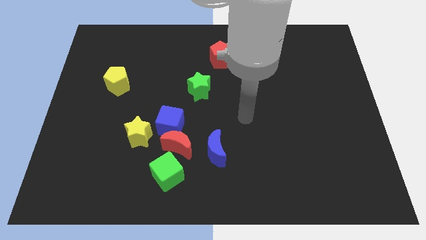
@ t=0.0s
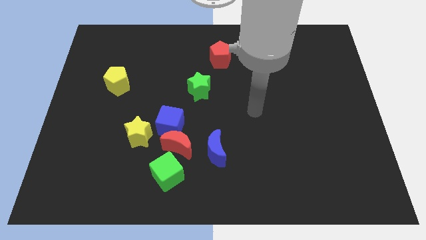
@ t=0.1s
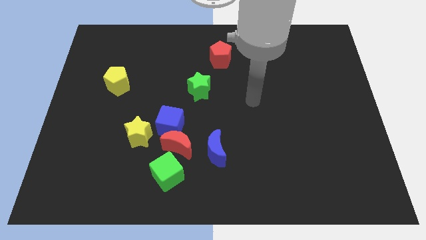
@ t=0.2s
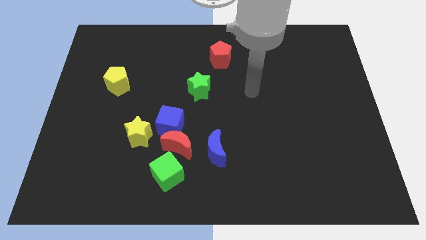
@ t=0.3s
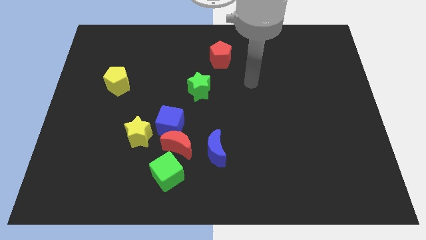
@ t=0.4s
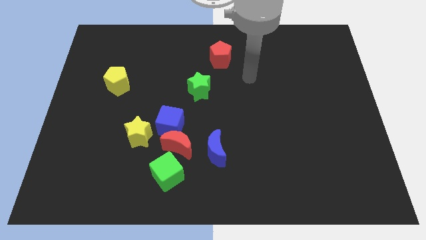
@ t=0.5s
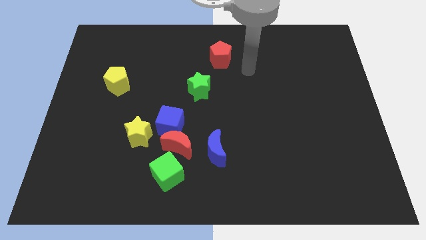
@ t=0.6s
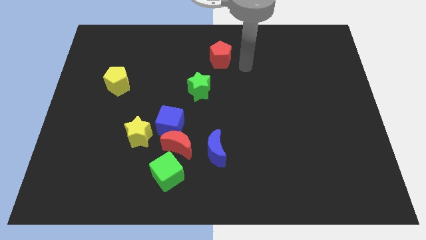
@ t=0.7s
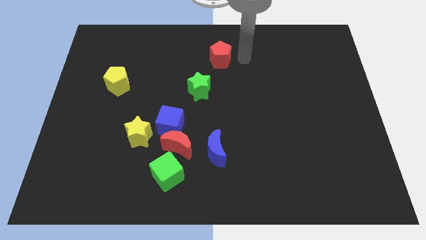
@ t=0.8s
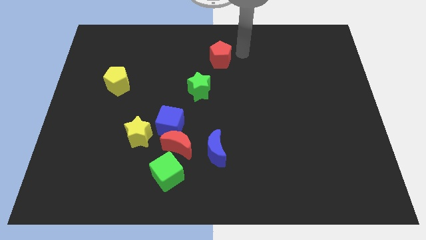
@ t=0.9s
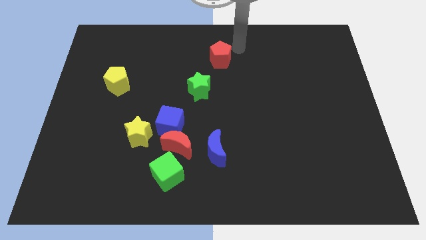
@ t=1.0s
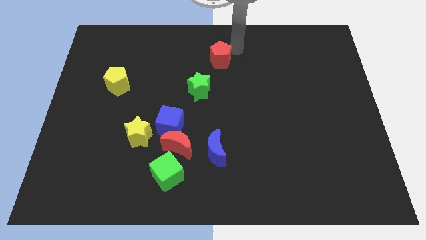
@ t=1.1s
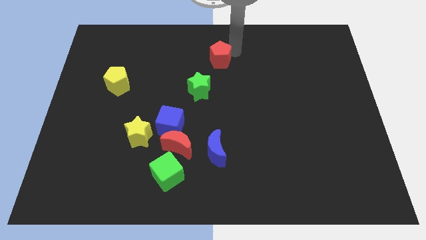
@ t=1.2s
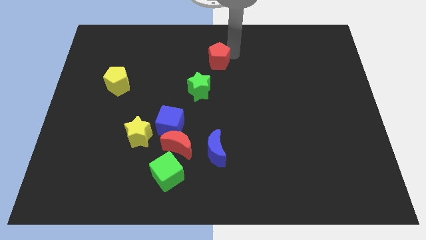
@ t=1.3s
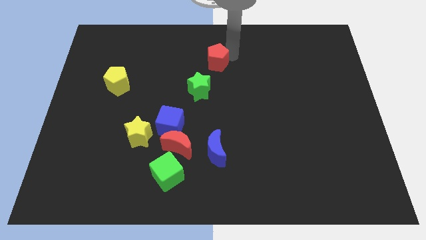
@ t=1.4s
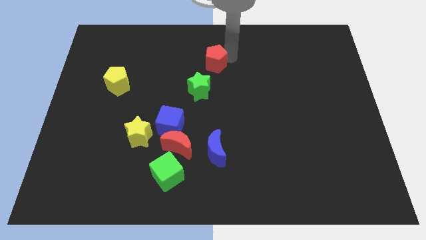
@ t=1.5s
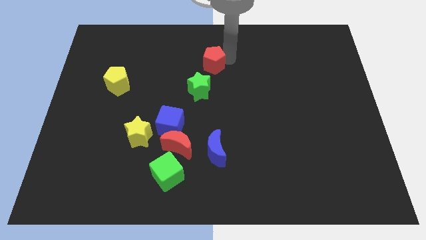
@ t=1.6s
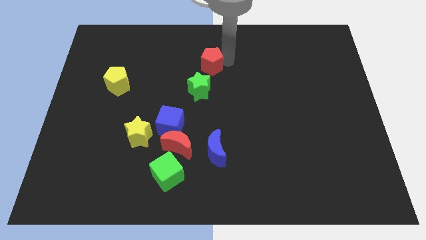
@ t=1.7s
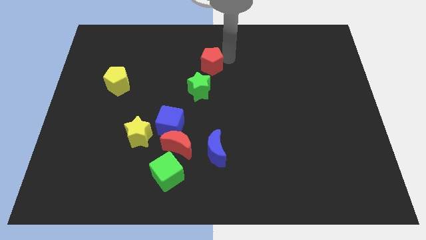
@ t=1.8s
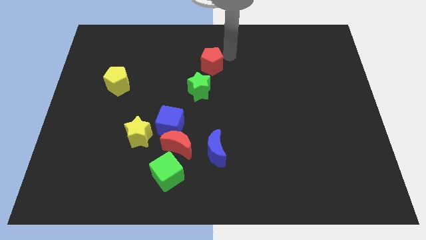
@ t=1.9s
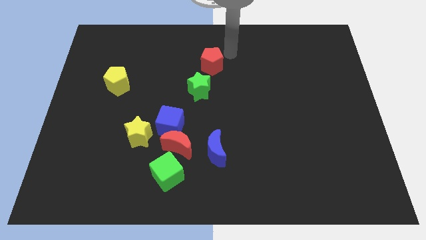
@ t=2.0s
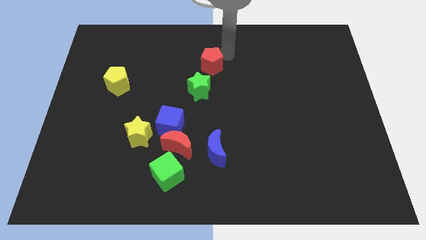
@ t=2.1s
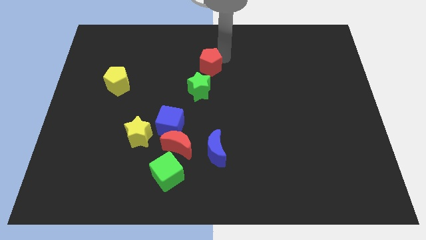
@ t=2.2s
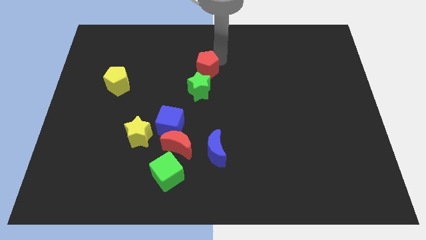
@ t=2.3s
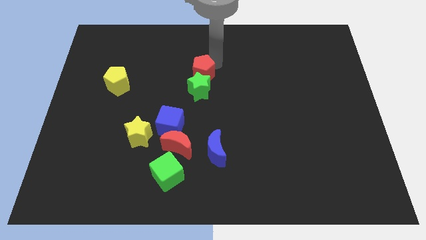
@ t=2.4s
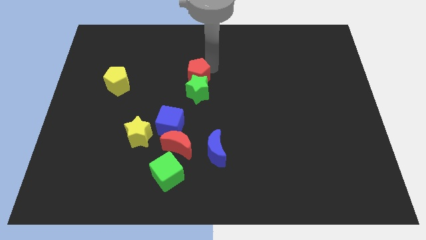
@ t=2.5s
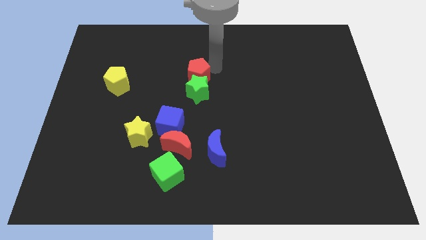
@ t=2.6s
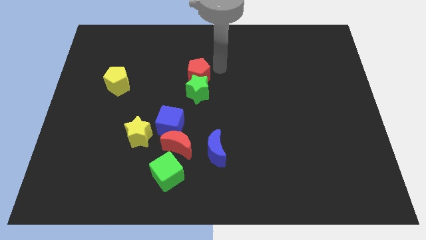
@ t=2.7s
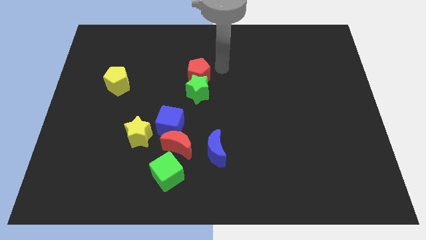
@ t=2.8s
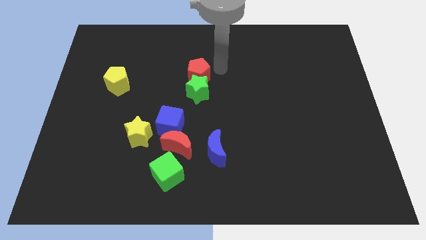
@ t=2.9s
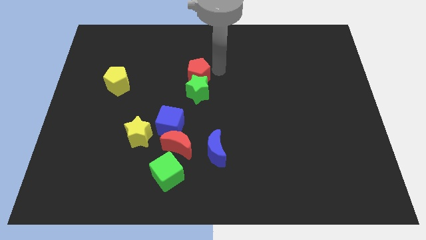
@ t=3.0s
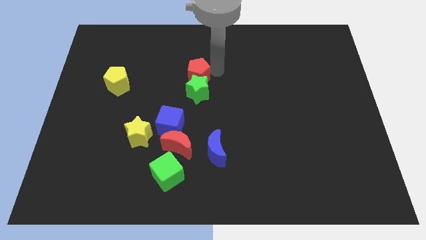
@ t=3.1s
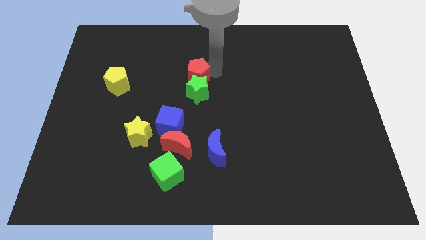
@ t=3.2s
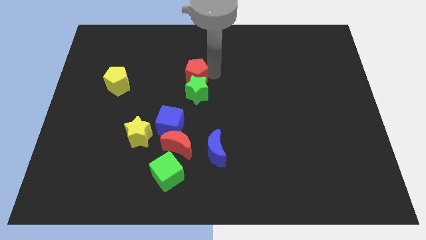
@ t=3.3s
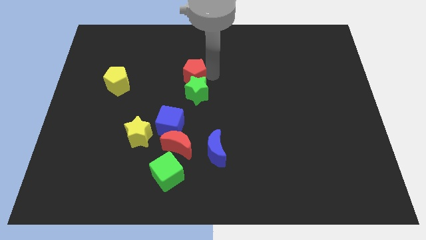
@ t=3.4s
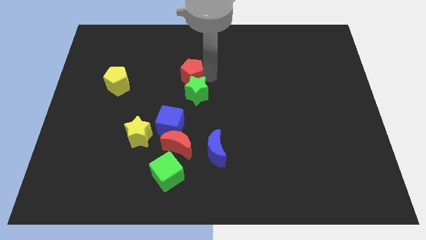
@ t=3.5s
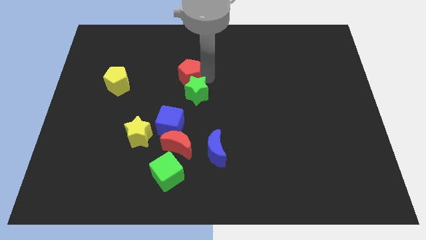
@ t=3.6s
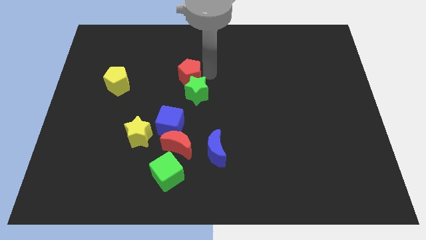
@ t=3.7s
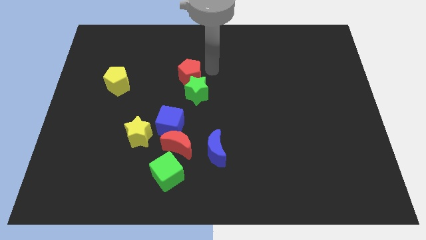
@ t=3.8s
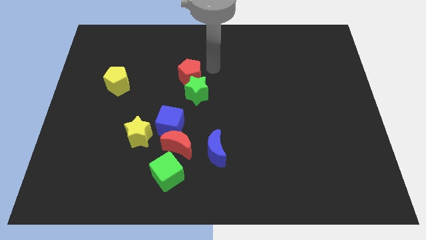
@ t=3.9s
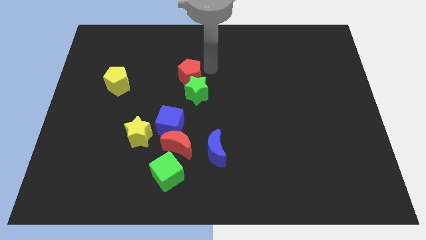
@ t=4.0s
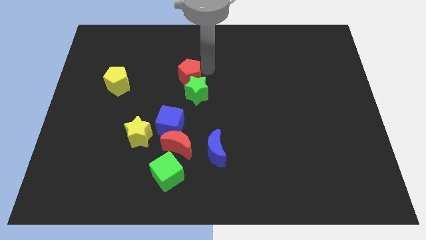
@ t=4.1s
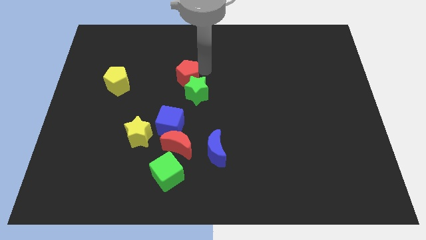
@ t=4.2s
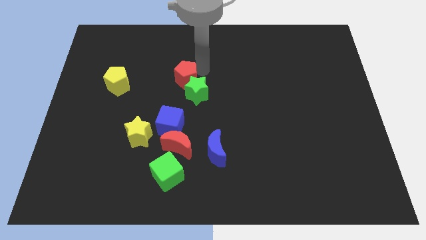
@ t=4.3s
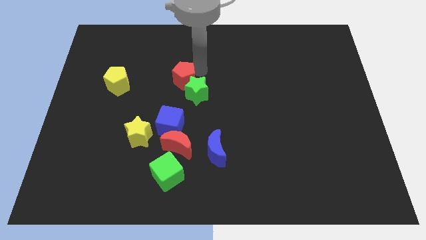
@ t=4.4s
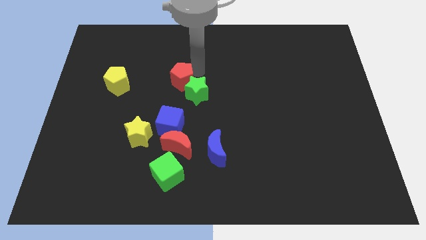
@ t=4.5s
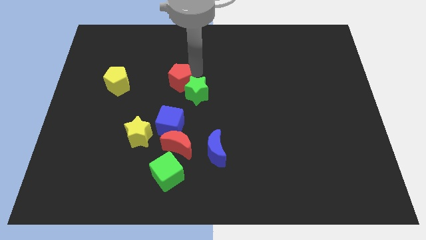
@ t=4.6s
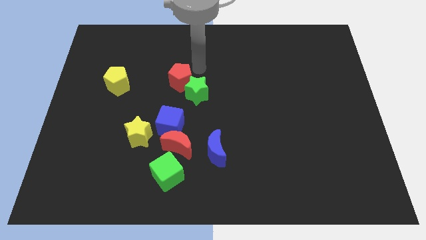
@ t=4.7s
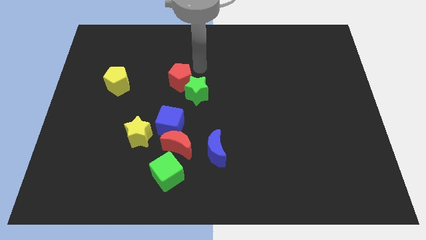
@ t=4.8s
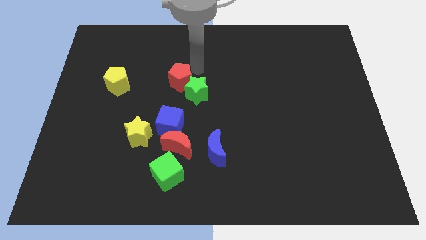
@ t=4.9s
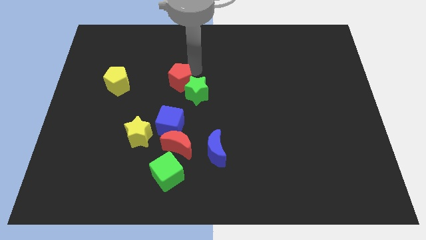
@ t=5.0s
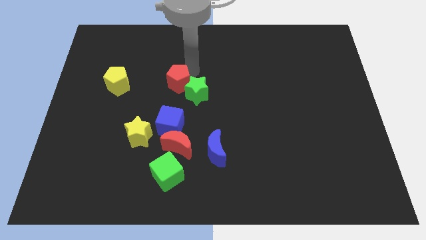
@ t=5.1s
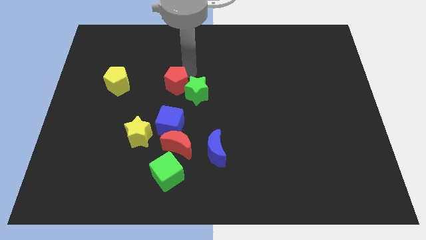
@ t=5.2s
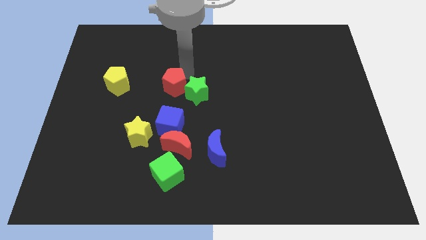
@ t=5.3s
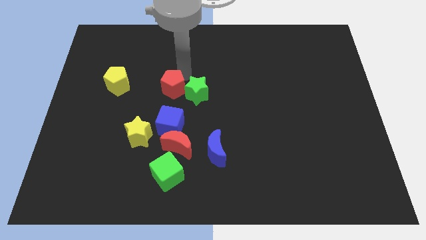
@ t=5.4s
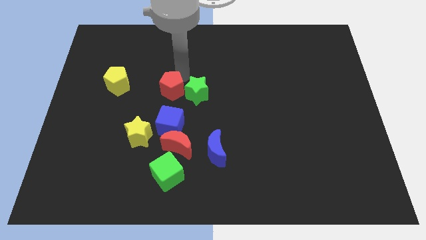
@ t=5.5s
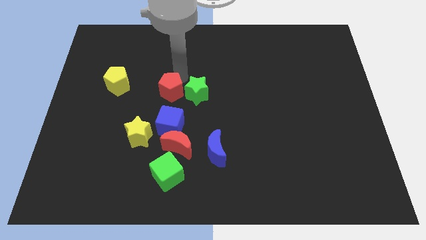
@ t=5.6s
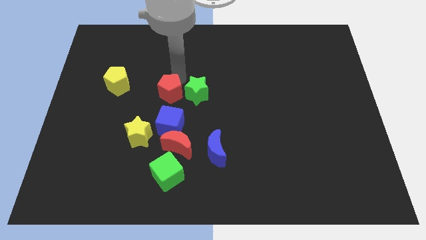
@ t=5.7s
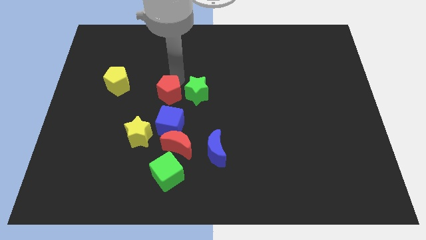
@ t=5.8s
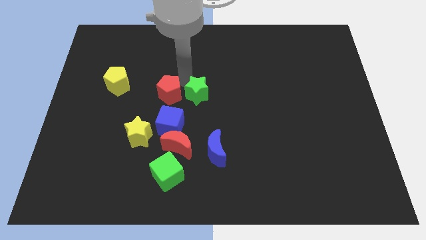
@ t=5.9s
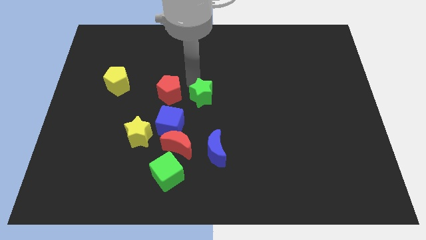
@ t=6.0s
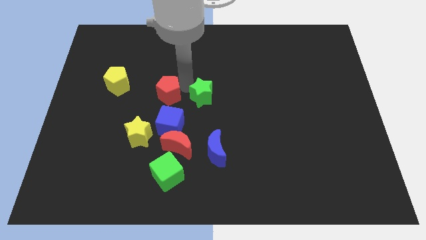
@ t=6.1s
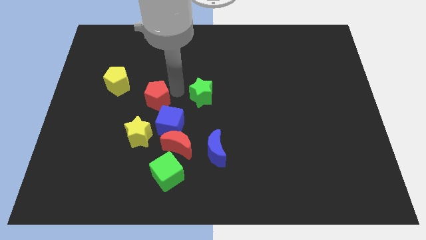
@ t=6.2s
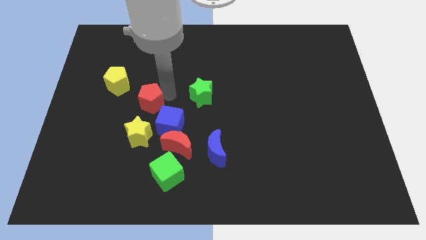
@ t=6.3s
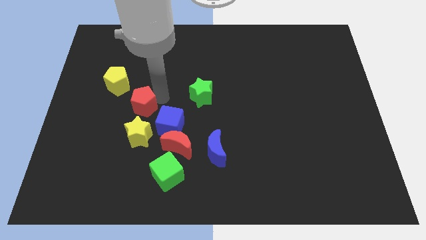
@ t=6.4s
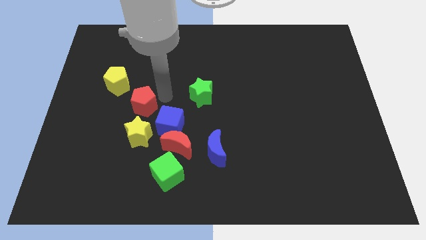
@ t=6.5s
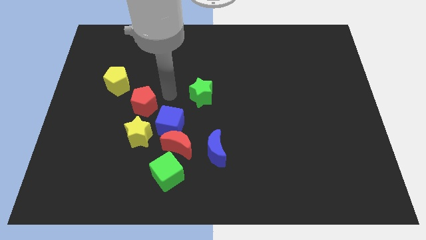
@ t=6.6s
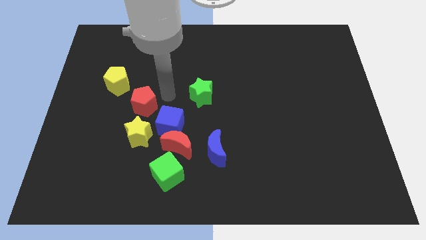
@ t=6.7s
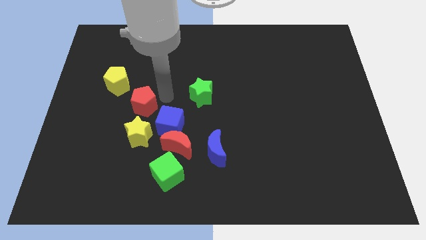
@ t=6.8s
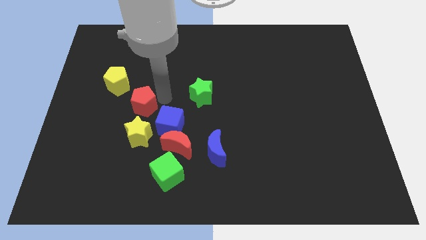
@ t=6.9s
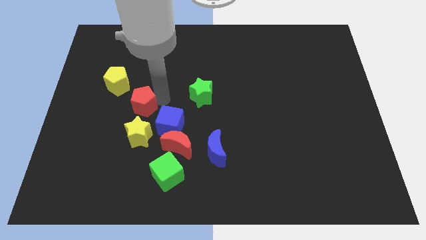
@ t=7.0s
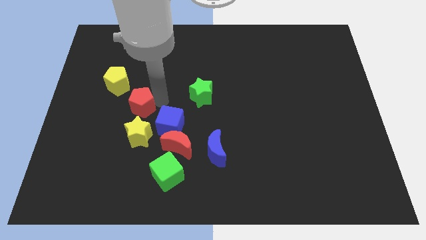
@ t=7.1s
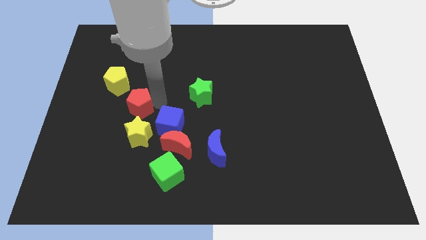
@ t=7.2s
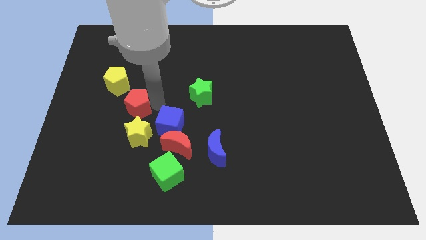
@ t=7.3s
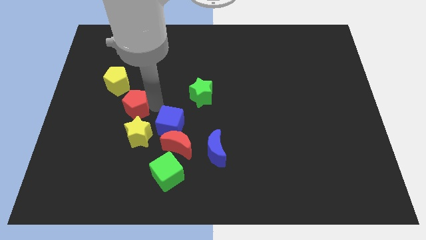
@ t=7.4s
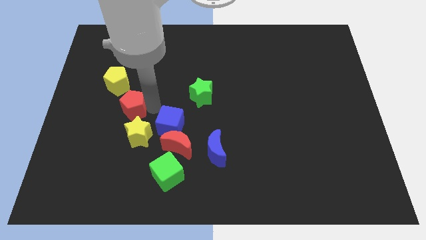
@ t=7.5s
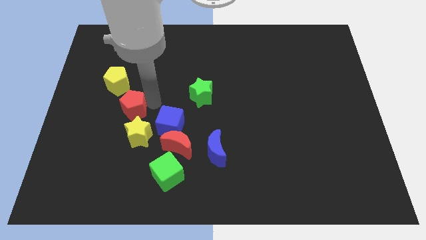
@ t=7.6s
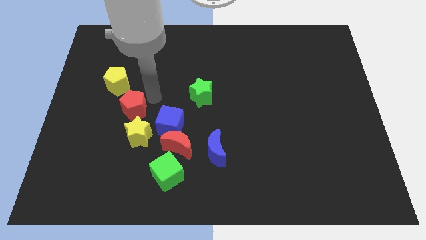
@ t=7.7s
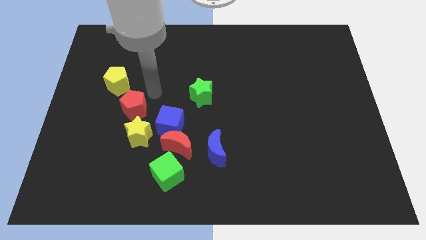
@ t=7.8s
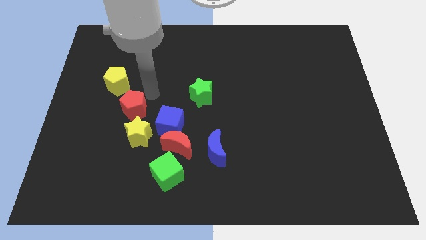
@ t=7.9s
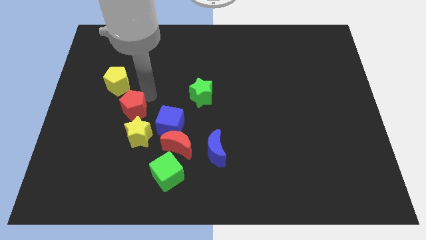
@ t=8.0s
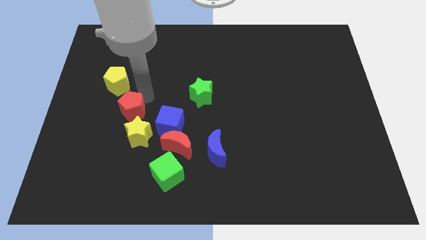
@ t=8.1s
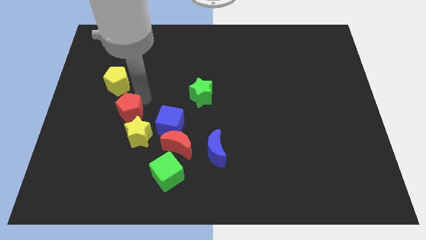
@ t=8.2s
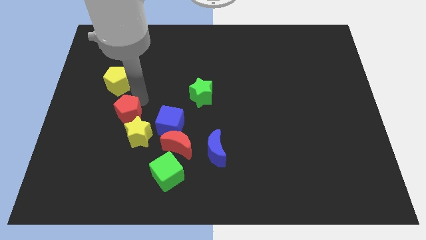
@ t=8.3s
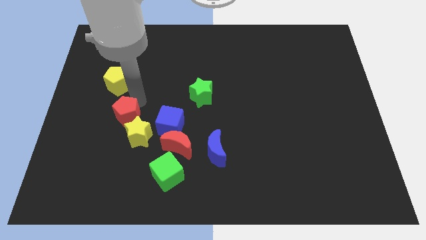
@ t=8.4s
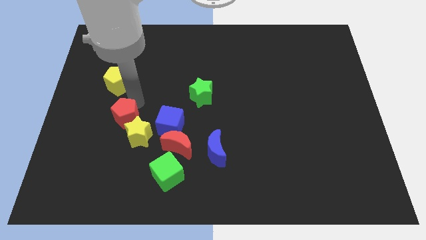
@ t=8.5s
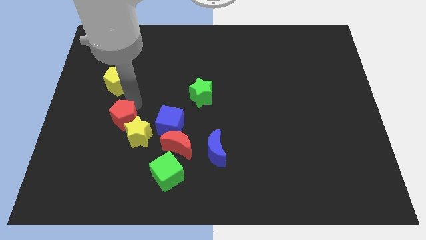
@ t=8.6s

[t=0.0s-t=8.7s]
move the red pentagon to the left of the yellow star
